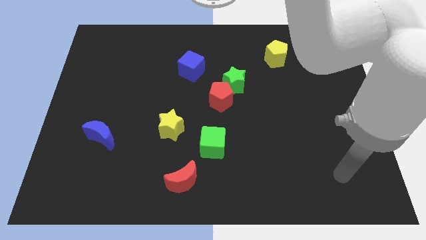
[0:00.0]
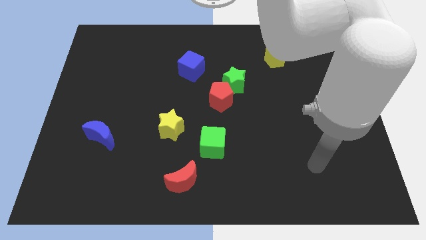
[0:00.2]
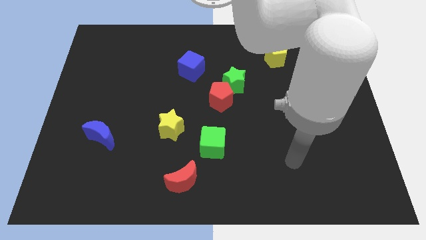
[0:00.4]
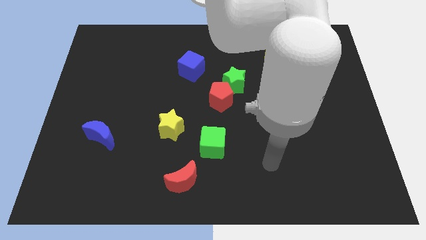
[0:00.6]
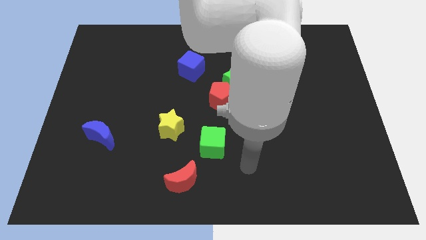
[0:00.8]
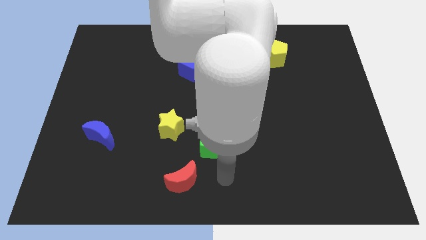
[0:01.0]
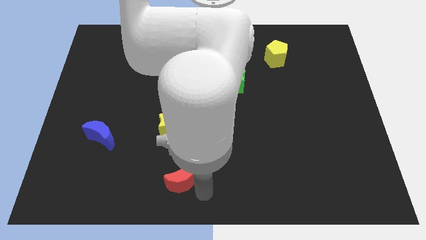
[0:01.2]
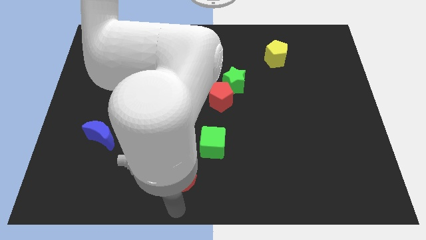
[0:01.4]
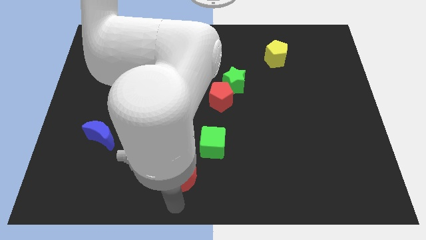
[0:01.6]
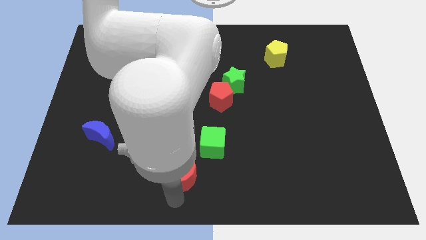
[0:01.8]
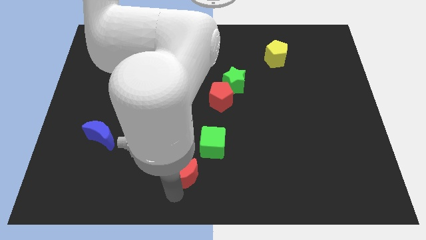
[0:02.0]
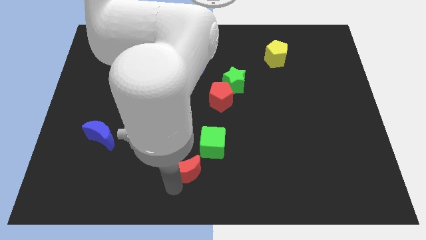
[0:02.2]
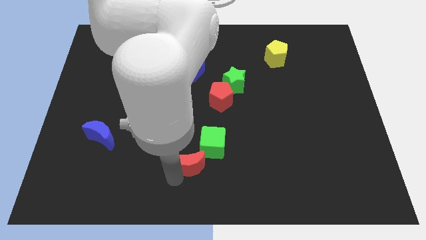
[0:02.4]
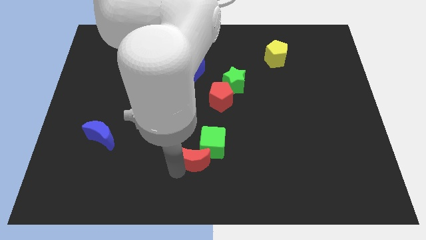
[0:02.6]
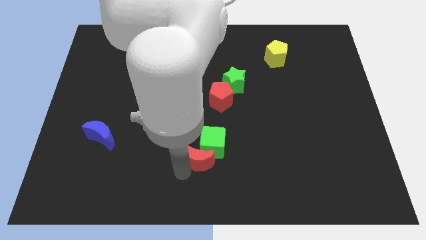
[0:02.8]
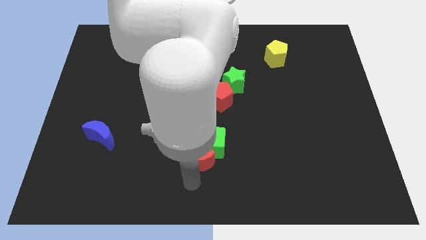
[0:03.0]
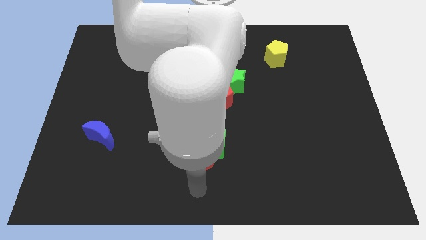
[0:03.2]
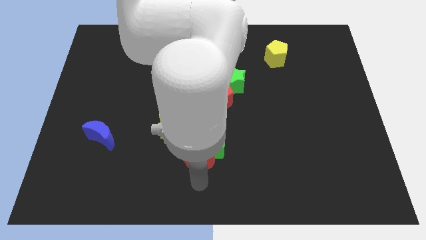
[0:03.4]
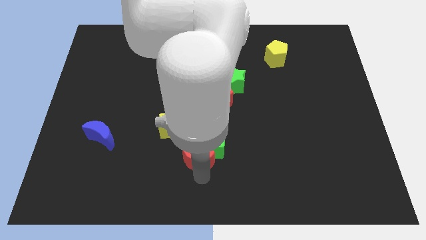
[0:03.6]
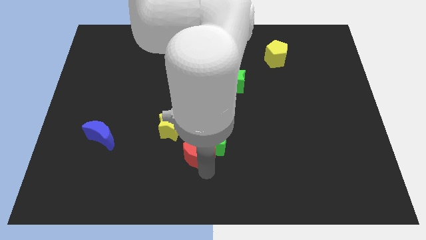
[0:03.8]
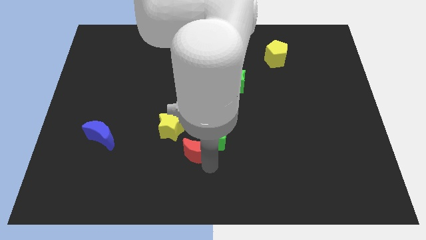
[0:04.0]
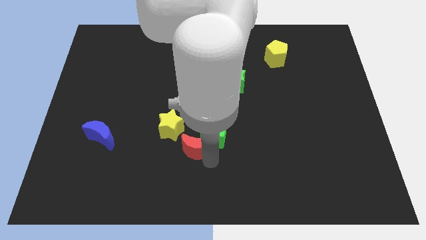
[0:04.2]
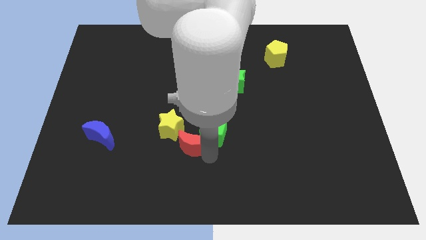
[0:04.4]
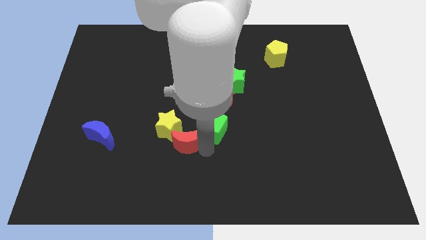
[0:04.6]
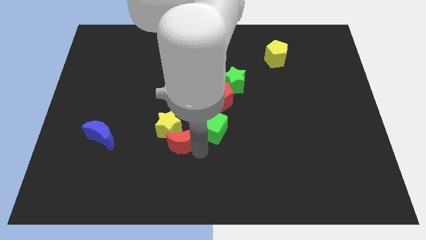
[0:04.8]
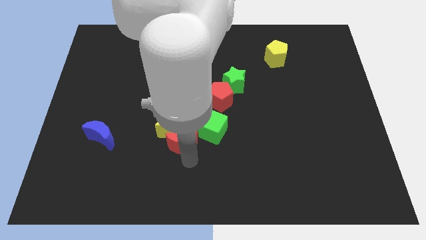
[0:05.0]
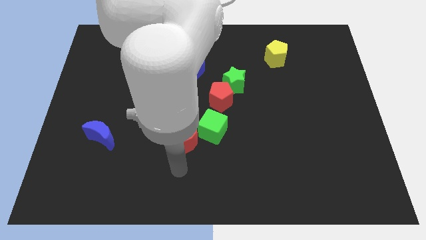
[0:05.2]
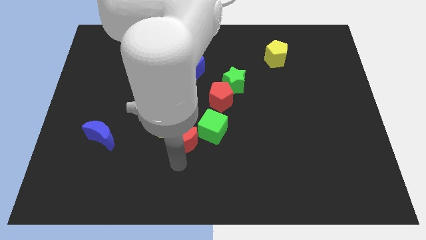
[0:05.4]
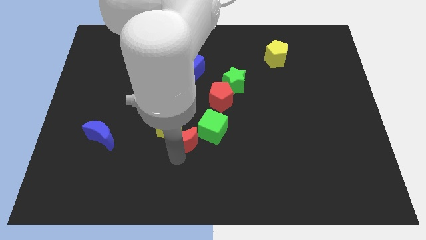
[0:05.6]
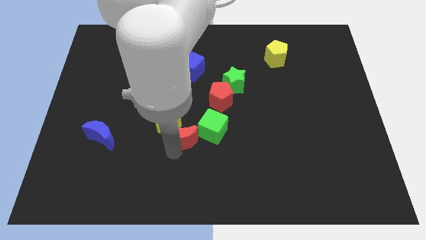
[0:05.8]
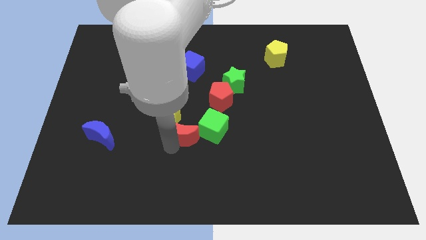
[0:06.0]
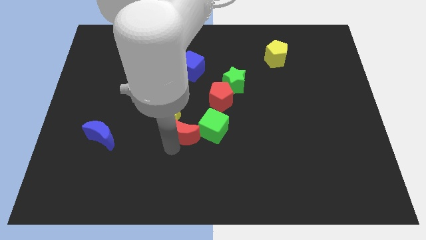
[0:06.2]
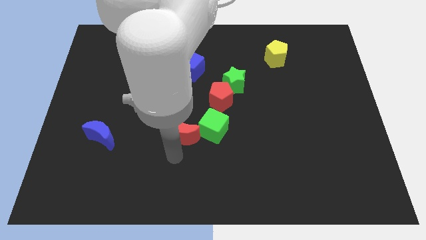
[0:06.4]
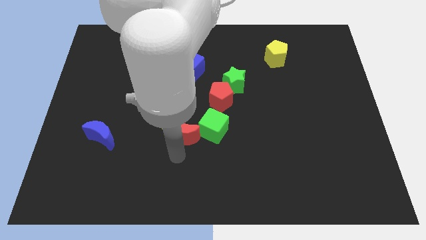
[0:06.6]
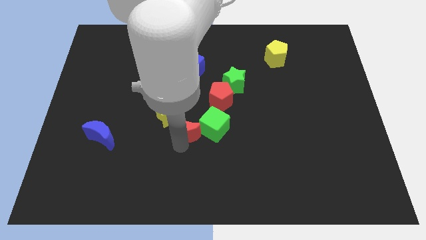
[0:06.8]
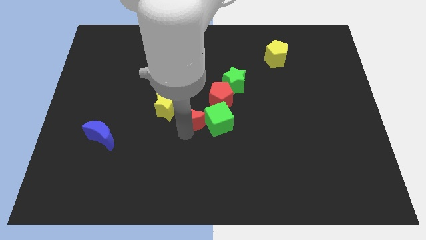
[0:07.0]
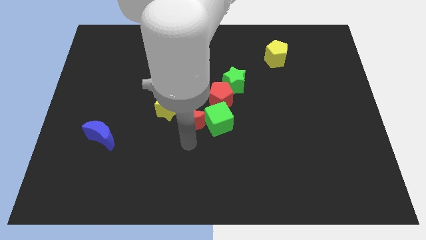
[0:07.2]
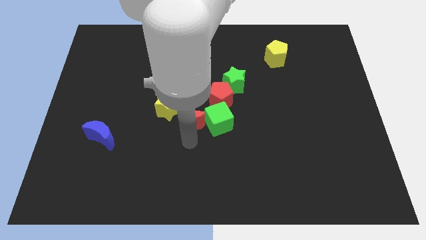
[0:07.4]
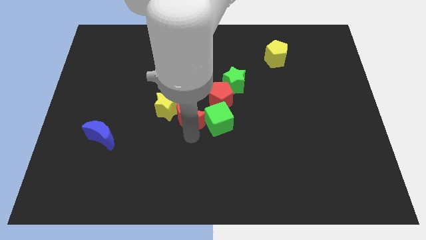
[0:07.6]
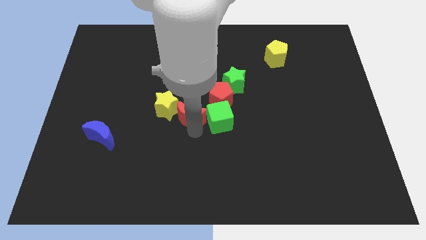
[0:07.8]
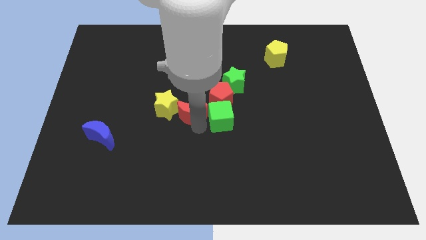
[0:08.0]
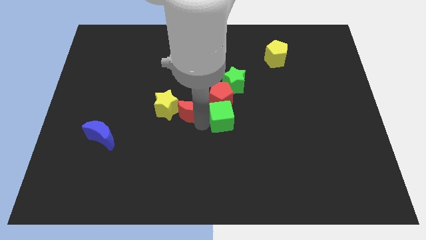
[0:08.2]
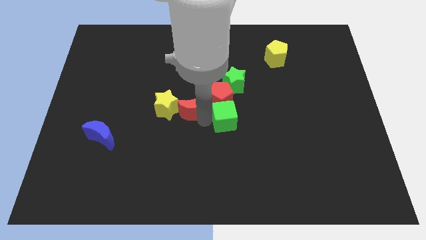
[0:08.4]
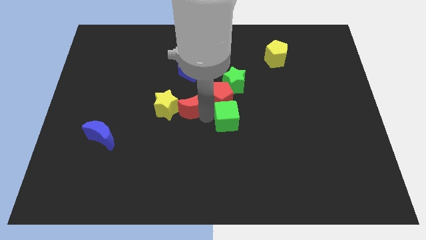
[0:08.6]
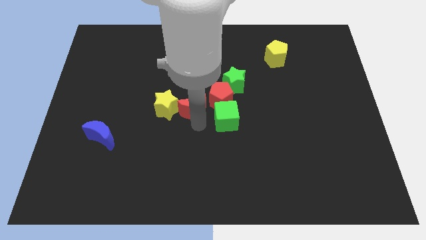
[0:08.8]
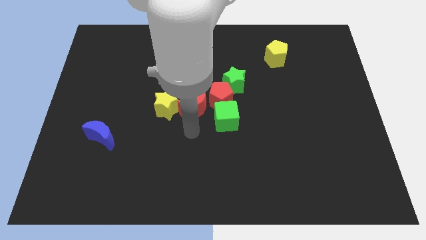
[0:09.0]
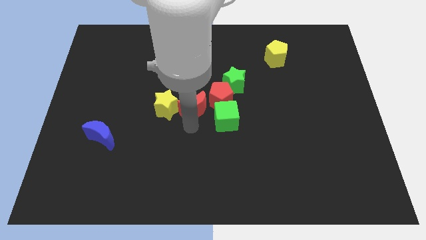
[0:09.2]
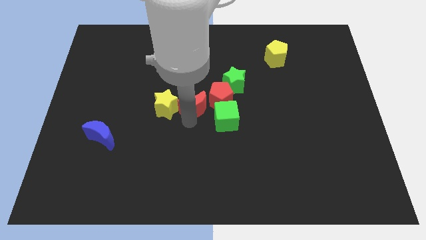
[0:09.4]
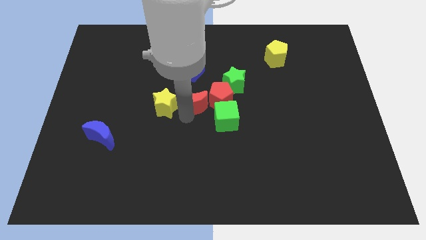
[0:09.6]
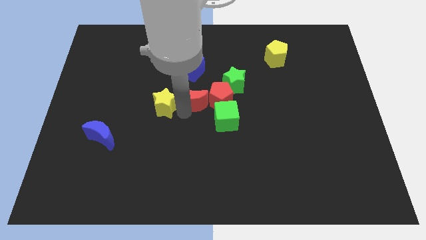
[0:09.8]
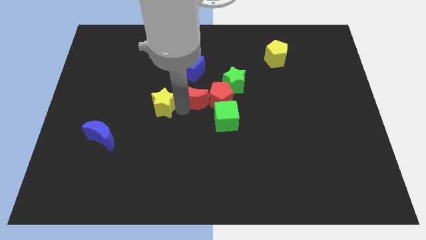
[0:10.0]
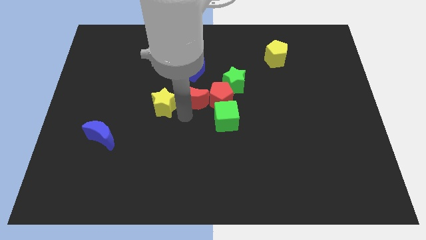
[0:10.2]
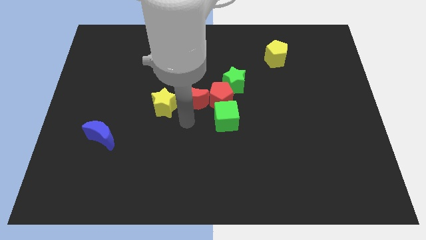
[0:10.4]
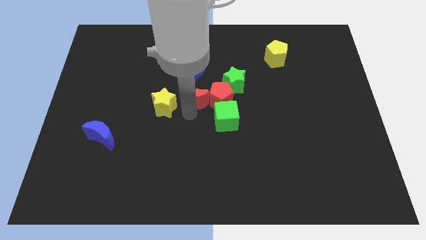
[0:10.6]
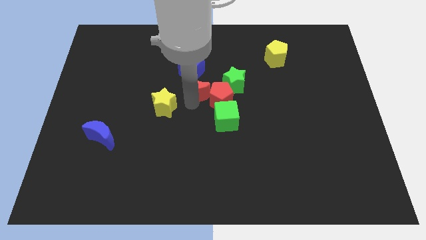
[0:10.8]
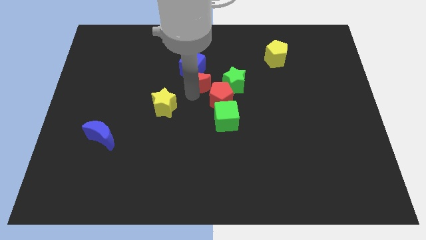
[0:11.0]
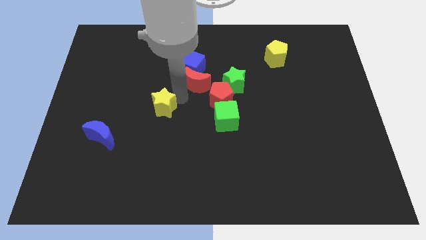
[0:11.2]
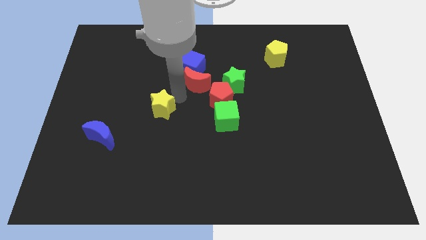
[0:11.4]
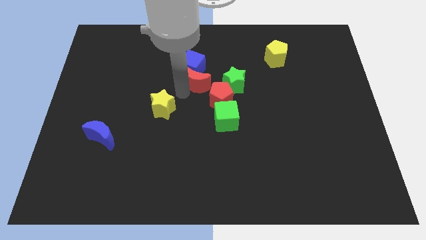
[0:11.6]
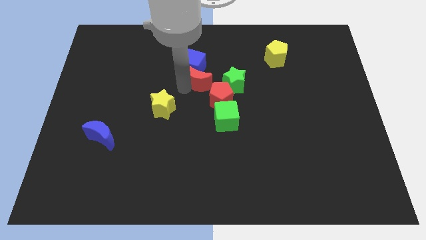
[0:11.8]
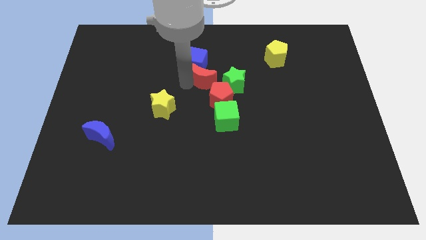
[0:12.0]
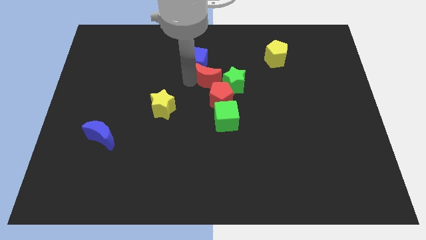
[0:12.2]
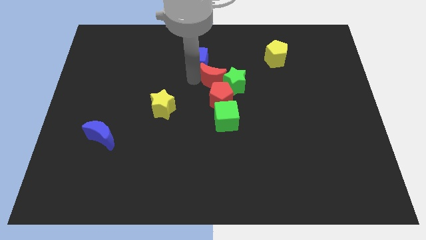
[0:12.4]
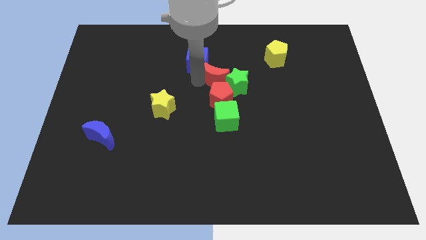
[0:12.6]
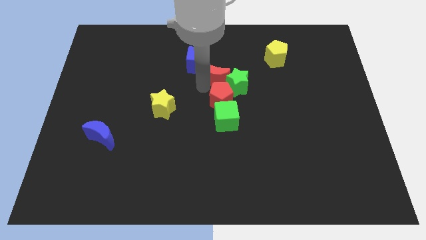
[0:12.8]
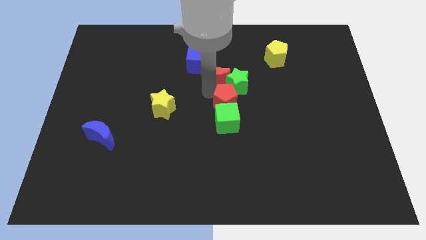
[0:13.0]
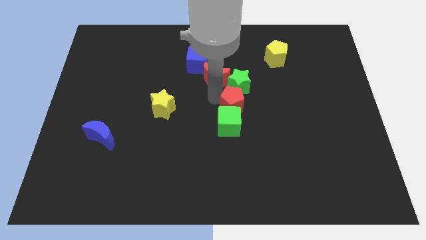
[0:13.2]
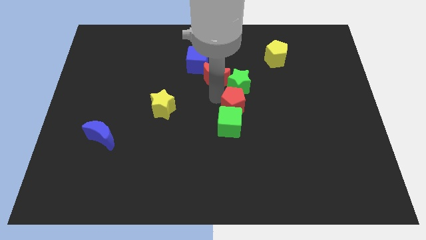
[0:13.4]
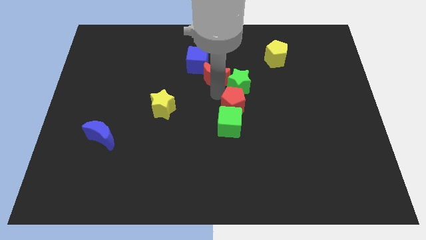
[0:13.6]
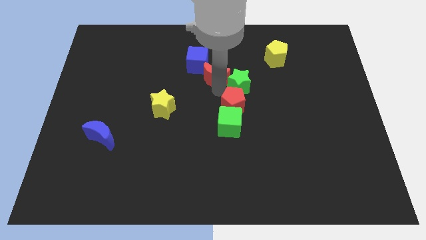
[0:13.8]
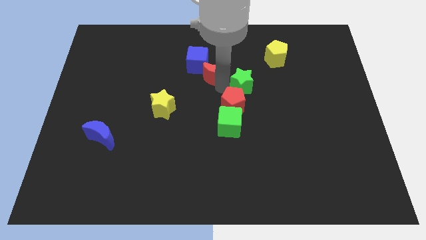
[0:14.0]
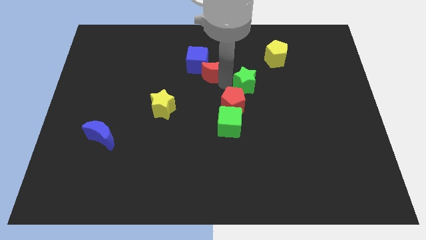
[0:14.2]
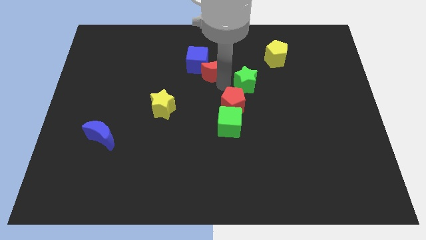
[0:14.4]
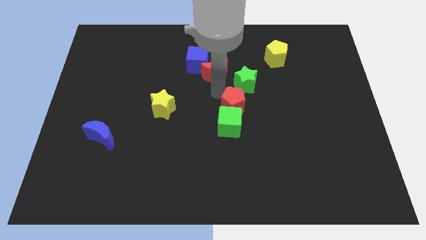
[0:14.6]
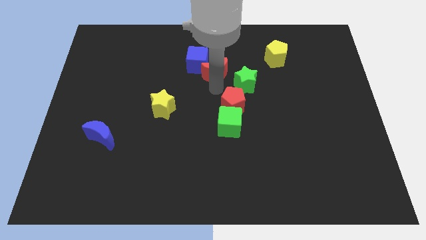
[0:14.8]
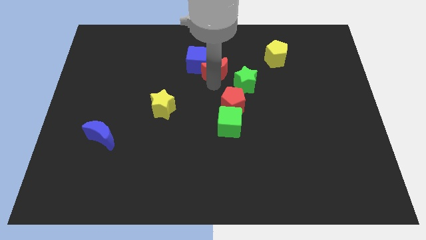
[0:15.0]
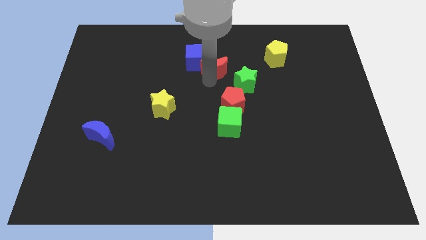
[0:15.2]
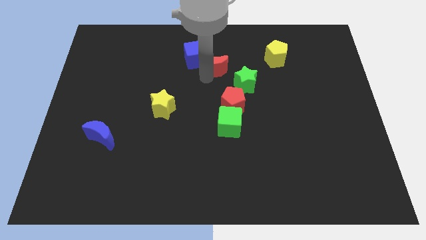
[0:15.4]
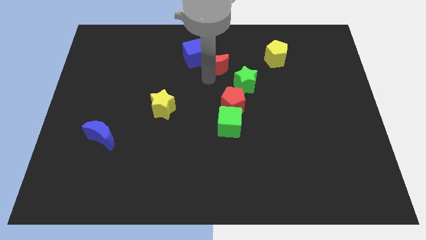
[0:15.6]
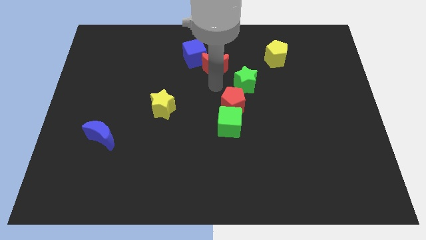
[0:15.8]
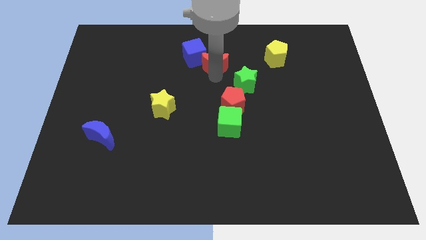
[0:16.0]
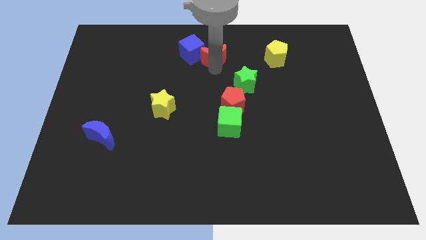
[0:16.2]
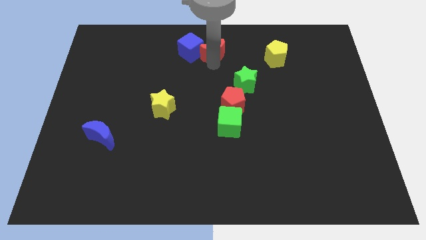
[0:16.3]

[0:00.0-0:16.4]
slide the red moon to the towards your base
